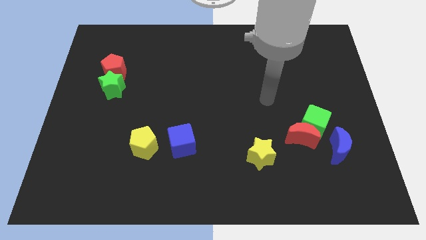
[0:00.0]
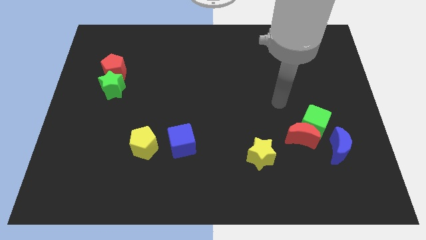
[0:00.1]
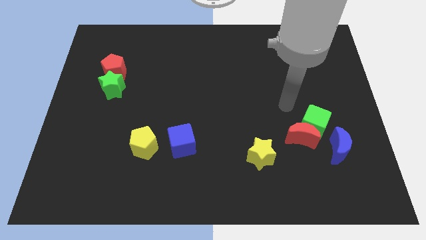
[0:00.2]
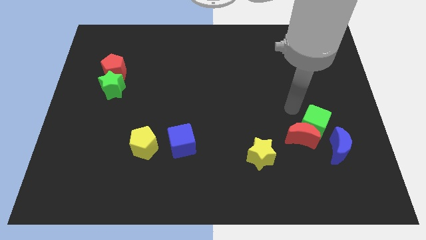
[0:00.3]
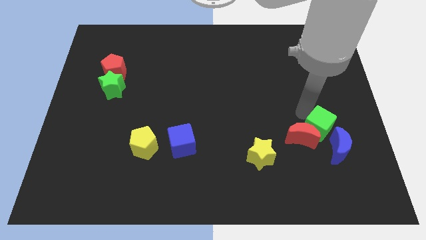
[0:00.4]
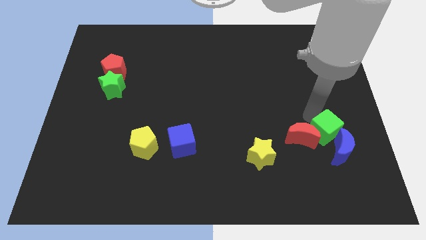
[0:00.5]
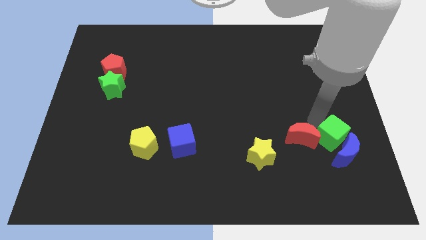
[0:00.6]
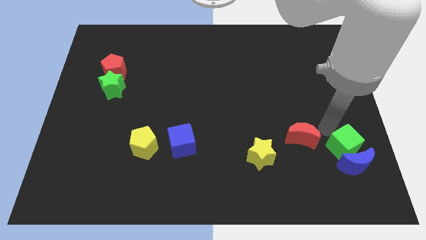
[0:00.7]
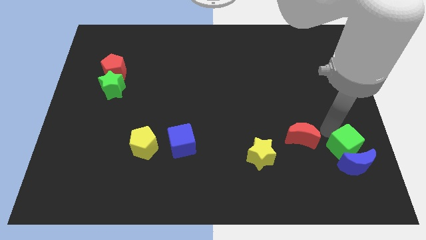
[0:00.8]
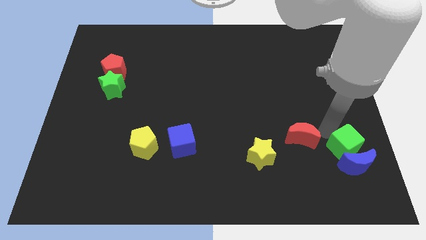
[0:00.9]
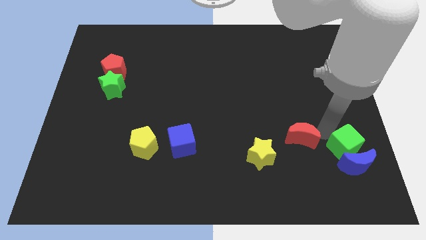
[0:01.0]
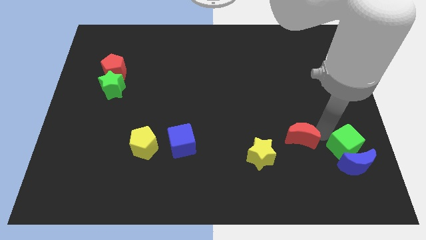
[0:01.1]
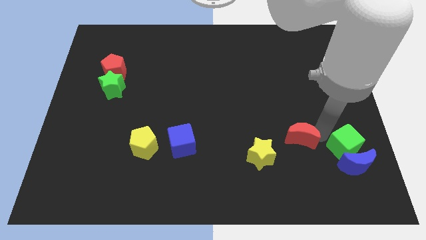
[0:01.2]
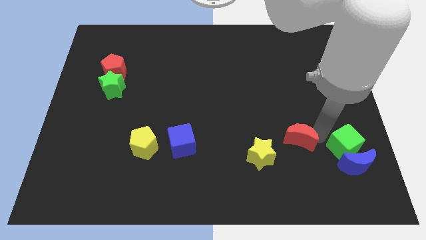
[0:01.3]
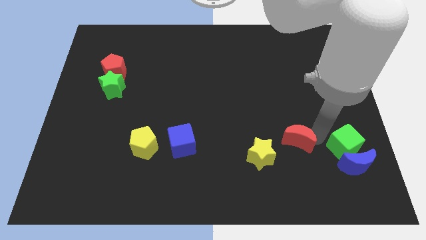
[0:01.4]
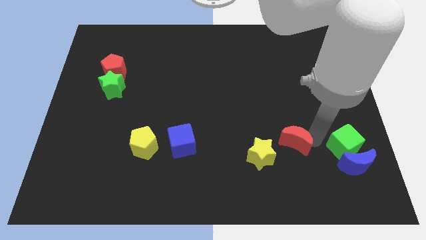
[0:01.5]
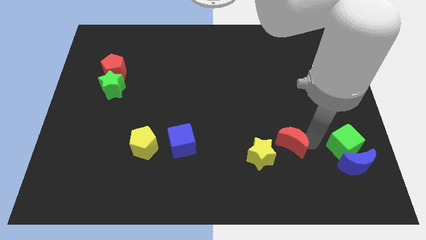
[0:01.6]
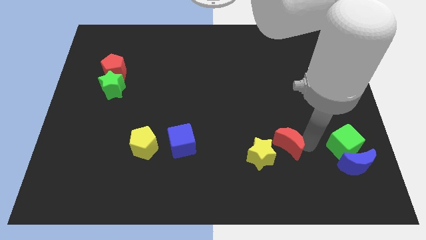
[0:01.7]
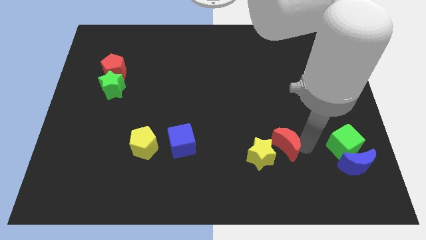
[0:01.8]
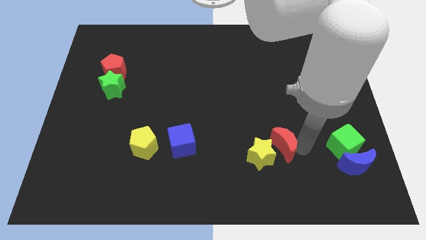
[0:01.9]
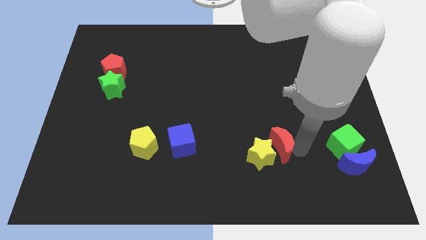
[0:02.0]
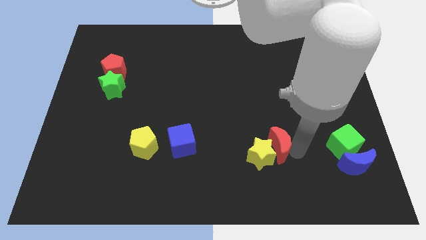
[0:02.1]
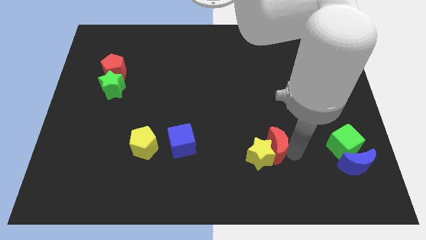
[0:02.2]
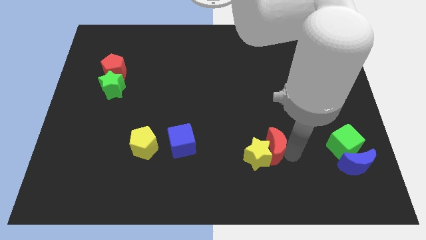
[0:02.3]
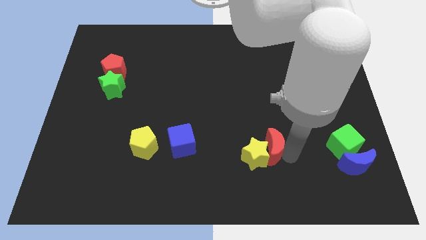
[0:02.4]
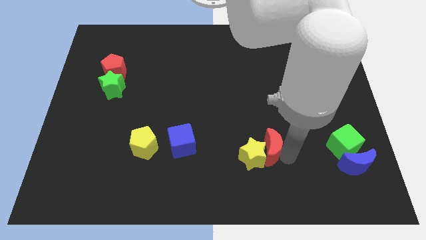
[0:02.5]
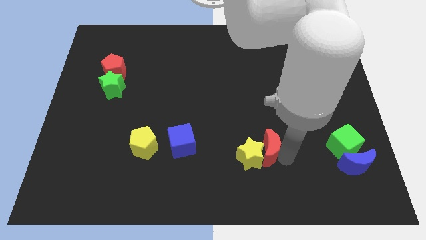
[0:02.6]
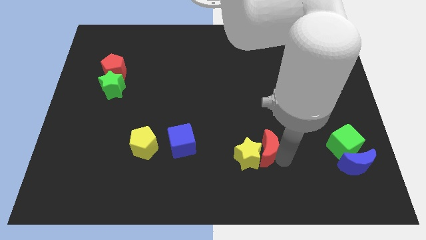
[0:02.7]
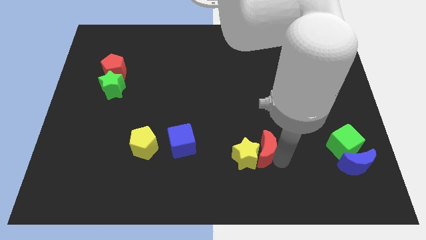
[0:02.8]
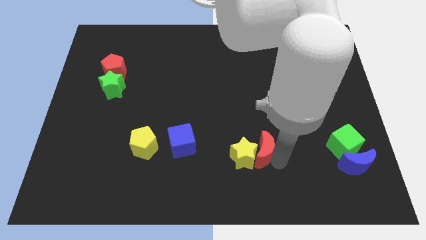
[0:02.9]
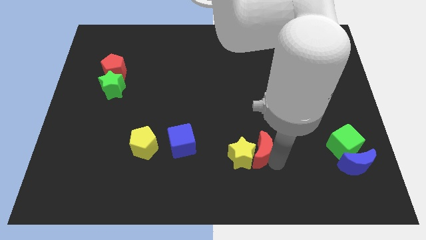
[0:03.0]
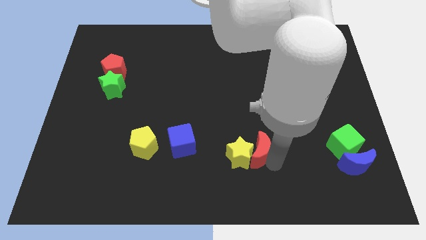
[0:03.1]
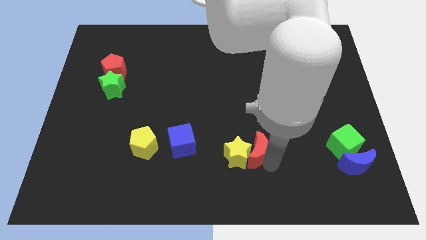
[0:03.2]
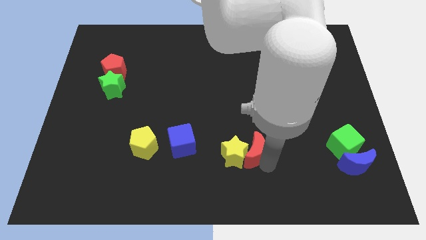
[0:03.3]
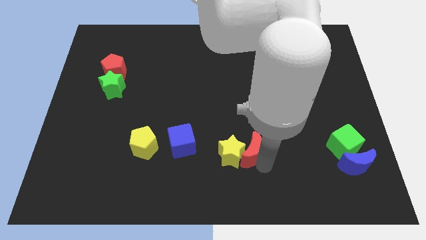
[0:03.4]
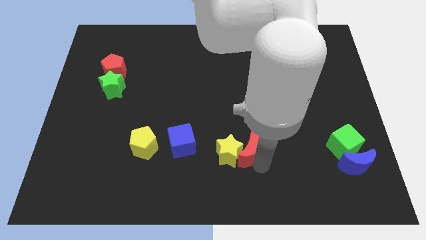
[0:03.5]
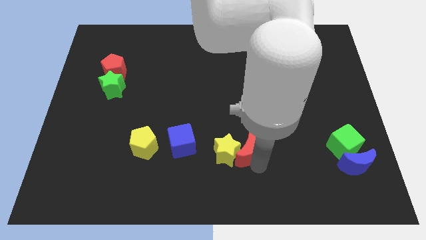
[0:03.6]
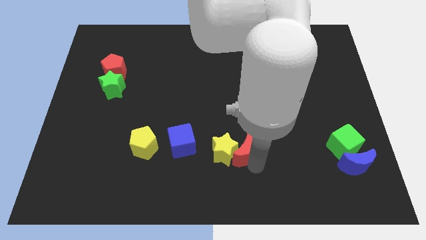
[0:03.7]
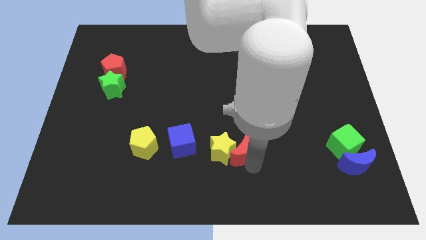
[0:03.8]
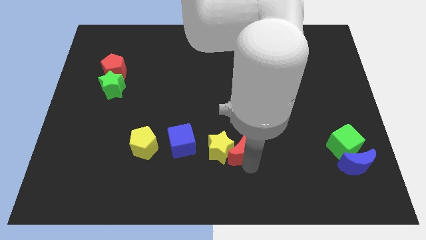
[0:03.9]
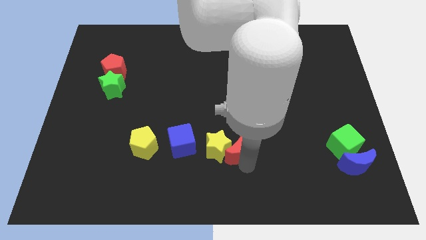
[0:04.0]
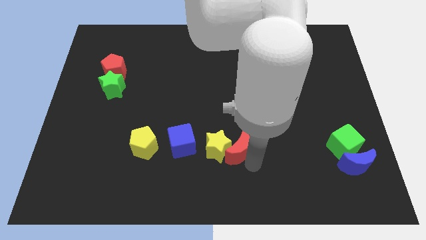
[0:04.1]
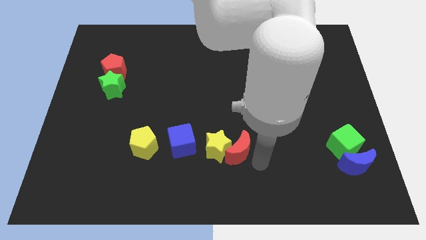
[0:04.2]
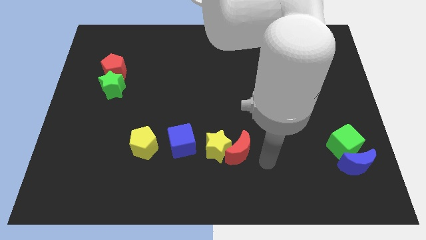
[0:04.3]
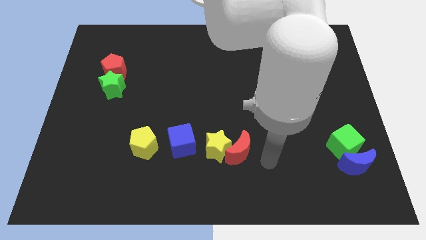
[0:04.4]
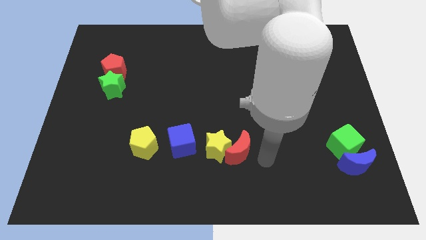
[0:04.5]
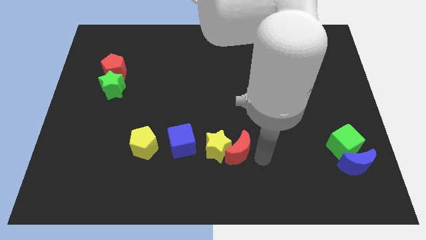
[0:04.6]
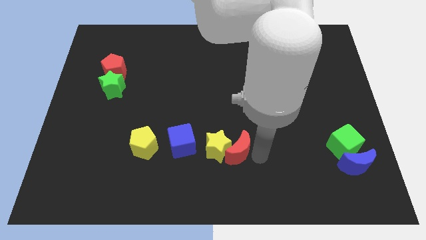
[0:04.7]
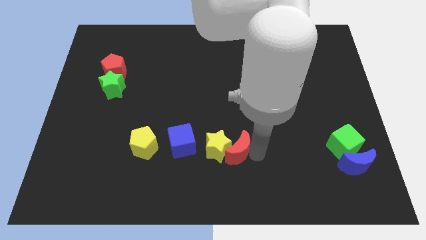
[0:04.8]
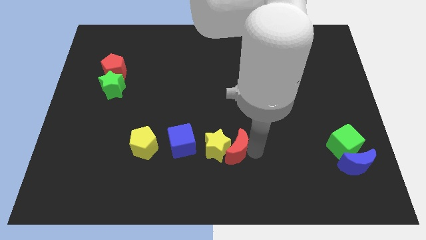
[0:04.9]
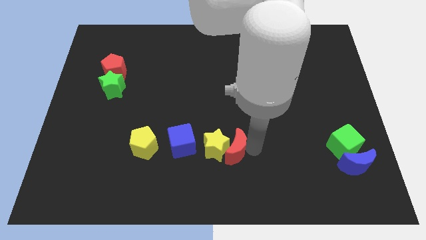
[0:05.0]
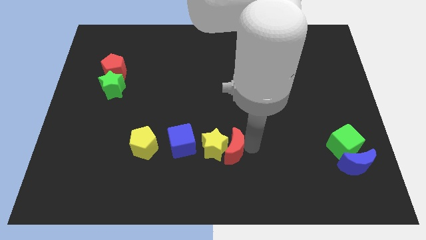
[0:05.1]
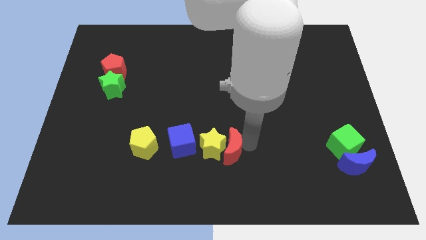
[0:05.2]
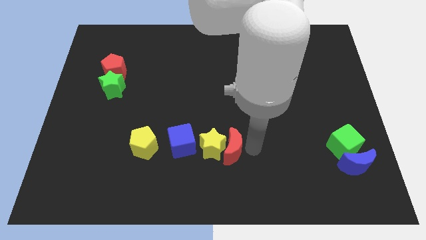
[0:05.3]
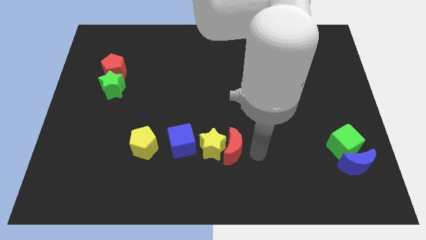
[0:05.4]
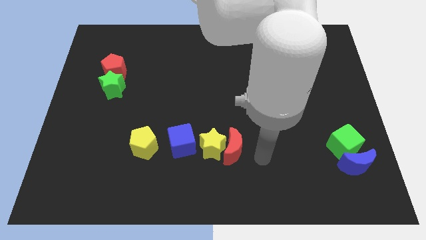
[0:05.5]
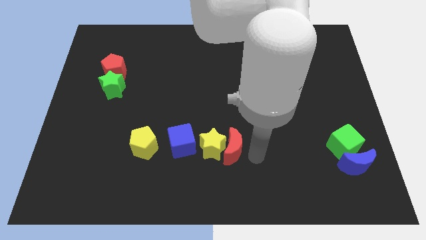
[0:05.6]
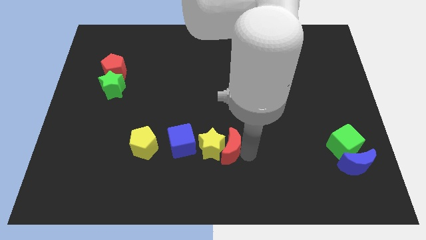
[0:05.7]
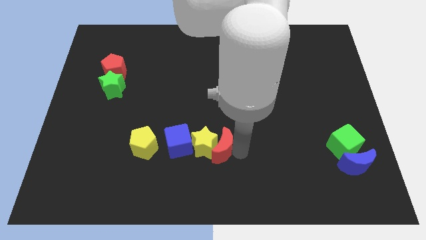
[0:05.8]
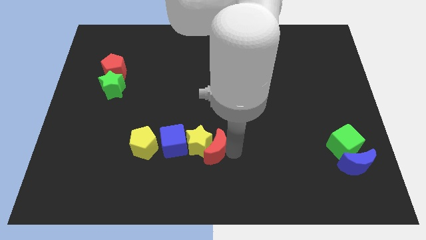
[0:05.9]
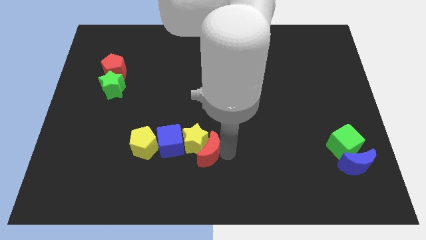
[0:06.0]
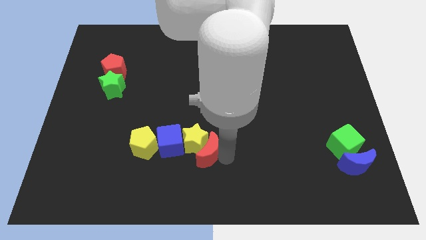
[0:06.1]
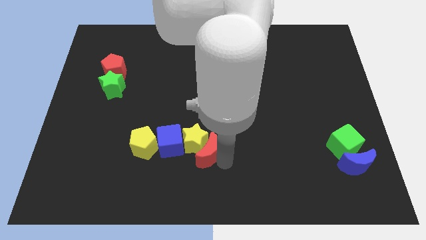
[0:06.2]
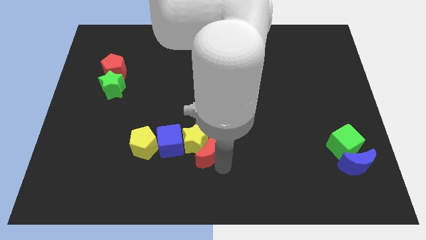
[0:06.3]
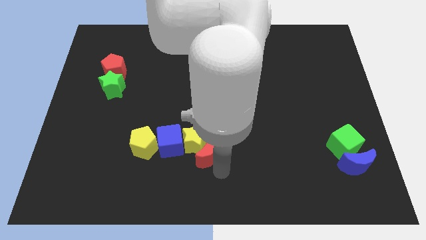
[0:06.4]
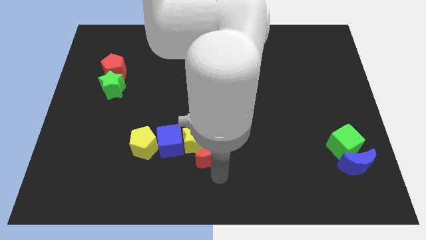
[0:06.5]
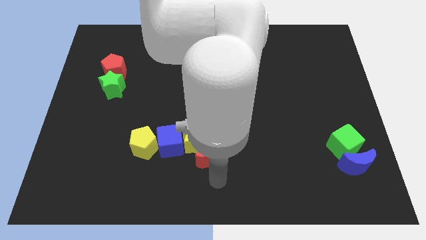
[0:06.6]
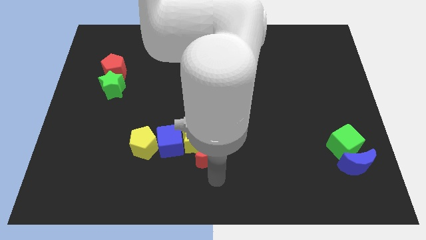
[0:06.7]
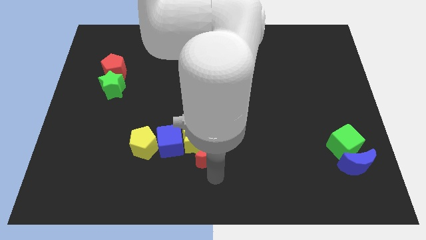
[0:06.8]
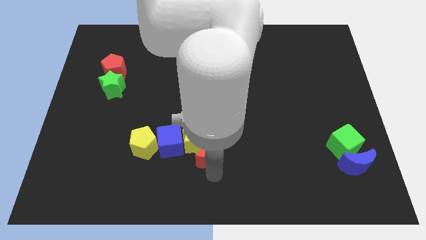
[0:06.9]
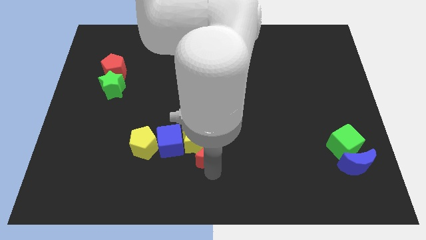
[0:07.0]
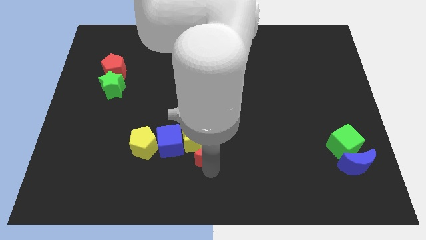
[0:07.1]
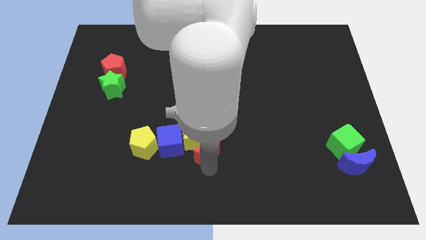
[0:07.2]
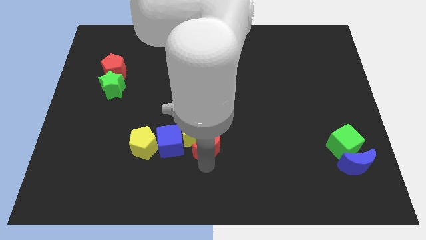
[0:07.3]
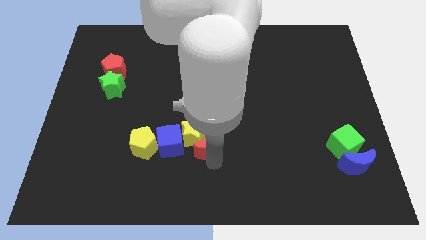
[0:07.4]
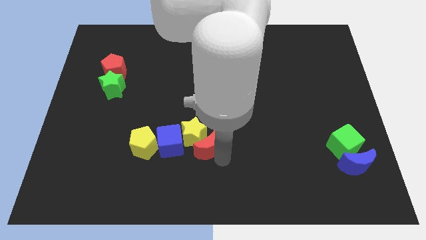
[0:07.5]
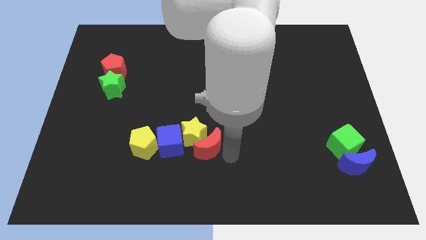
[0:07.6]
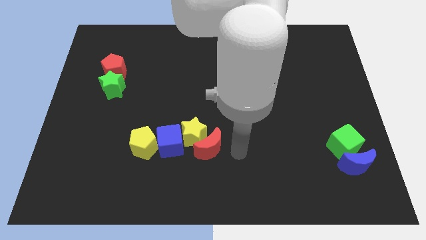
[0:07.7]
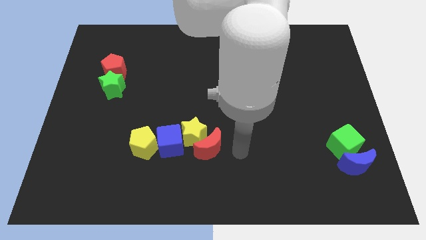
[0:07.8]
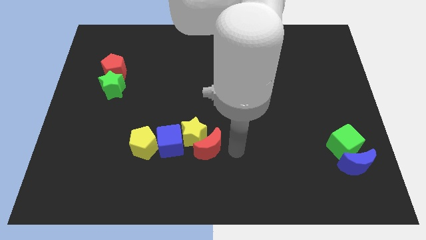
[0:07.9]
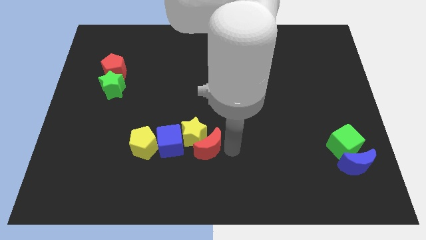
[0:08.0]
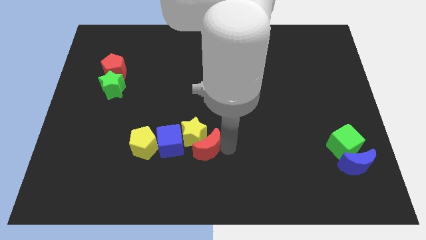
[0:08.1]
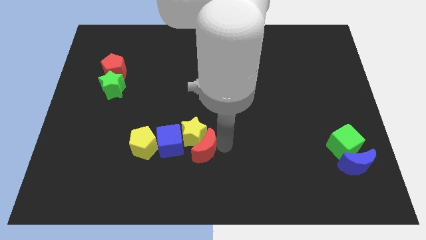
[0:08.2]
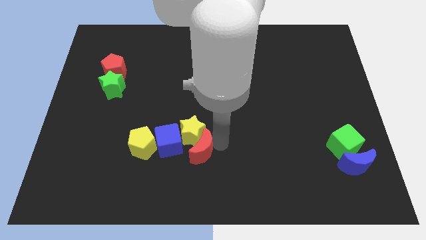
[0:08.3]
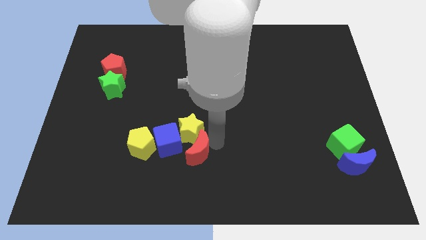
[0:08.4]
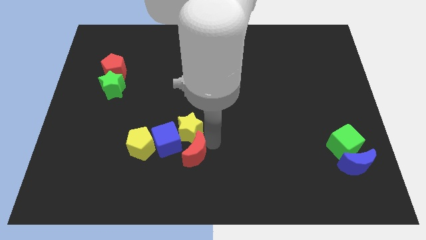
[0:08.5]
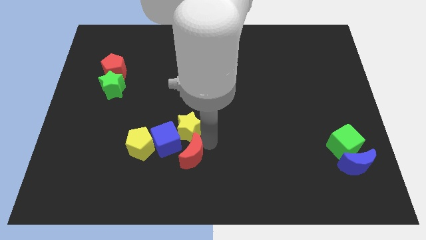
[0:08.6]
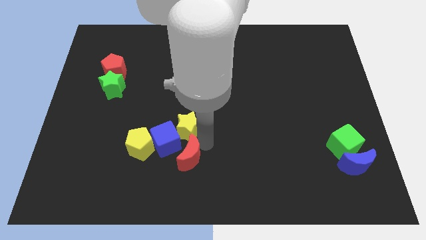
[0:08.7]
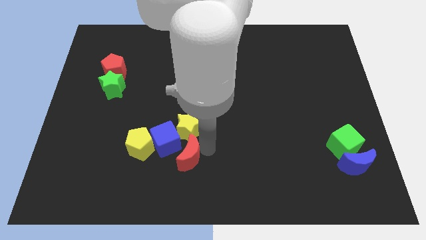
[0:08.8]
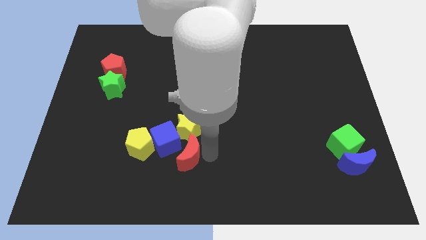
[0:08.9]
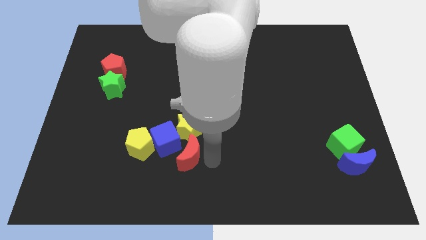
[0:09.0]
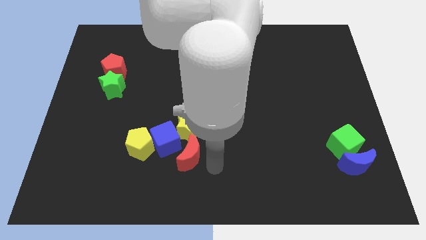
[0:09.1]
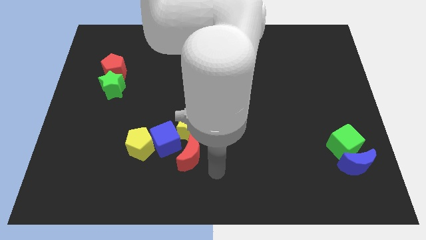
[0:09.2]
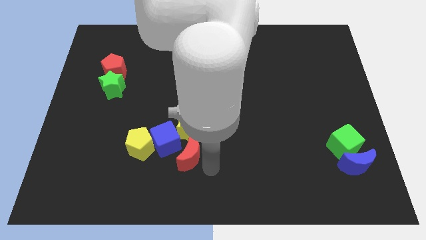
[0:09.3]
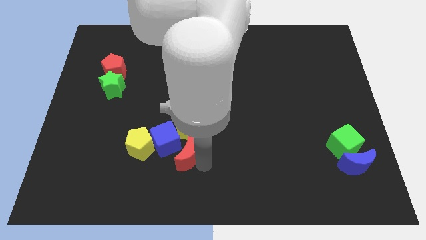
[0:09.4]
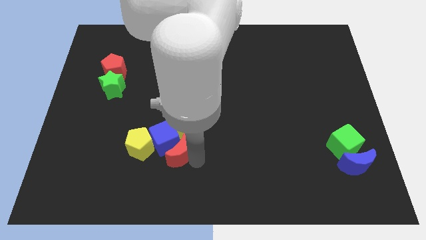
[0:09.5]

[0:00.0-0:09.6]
put the red moon towards the blue cube
